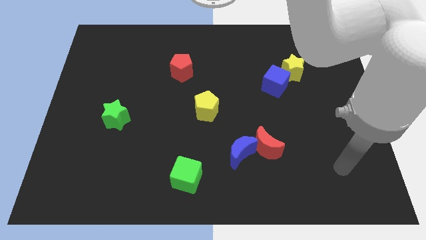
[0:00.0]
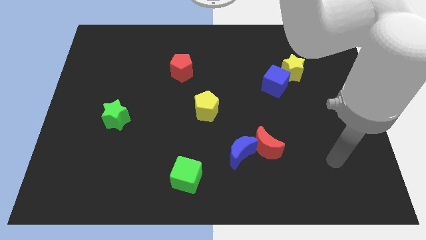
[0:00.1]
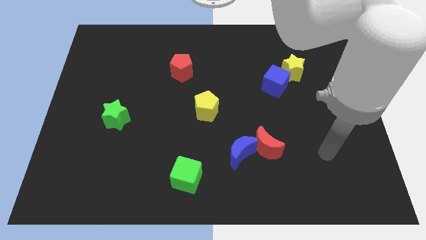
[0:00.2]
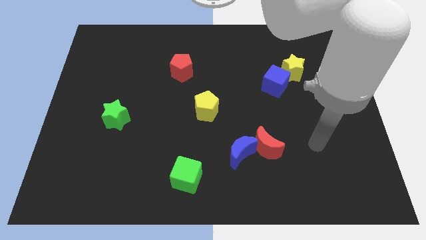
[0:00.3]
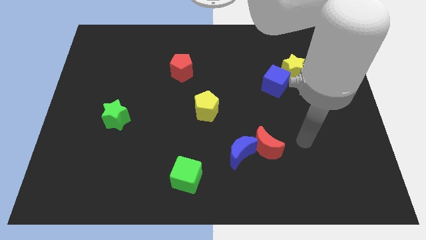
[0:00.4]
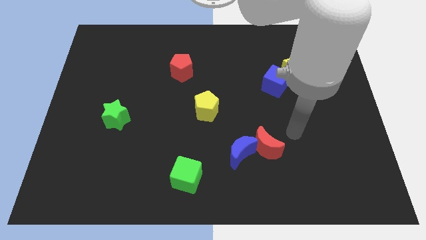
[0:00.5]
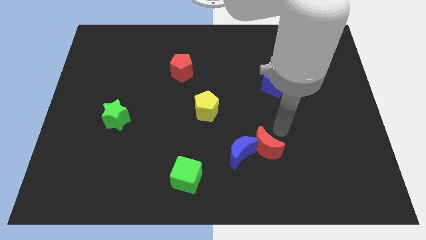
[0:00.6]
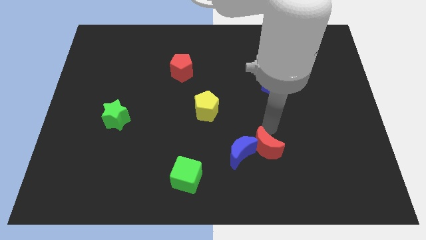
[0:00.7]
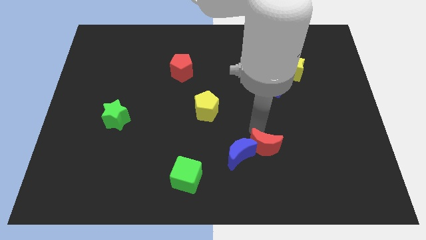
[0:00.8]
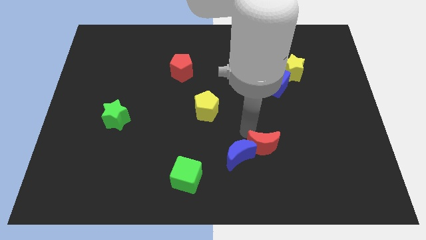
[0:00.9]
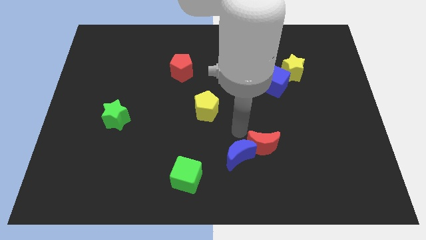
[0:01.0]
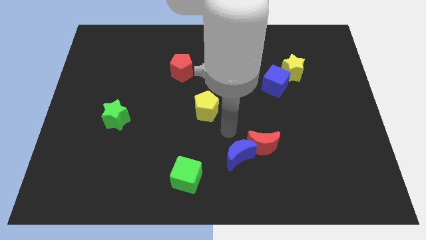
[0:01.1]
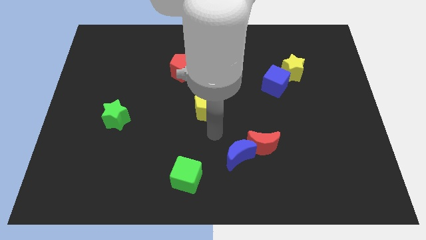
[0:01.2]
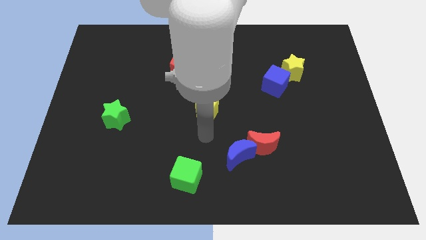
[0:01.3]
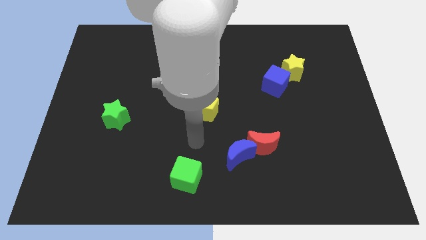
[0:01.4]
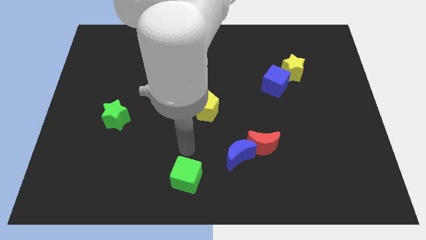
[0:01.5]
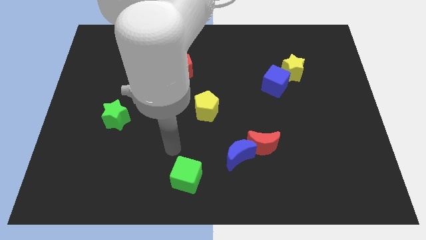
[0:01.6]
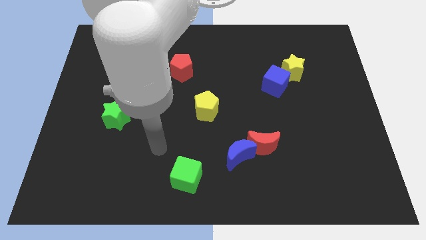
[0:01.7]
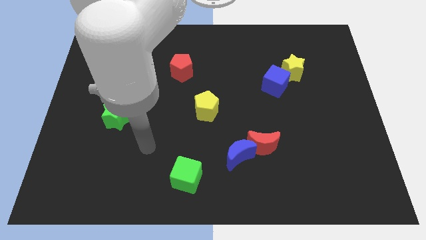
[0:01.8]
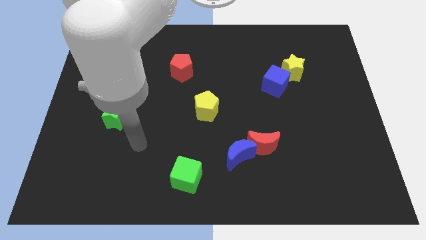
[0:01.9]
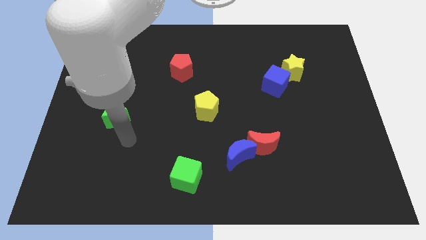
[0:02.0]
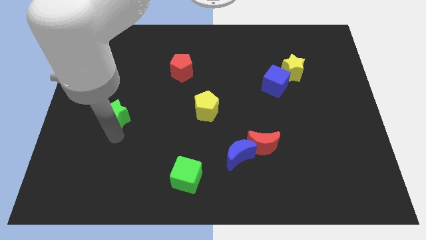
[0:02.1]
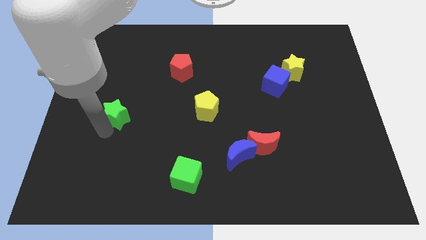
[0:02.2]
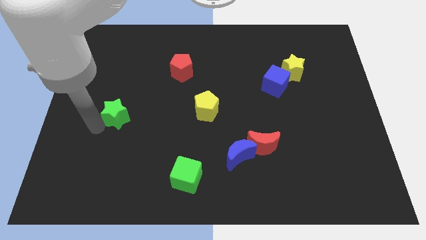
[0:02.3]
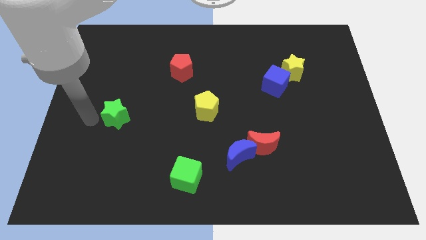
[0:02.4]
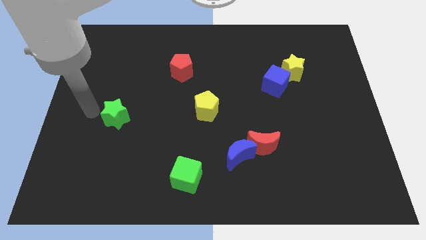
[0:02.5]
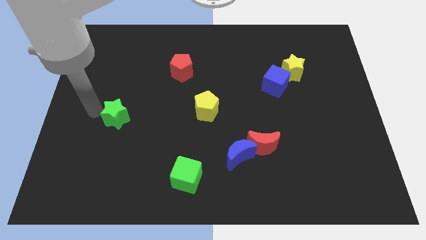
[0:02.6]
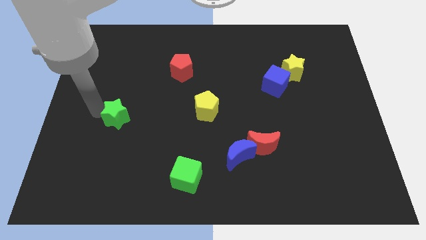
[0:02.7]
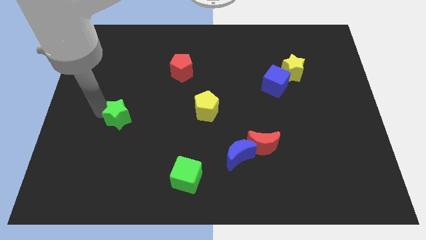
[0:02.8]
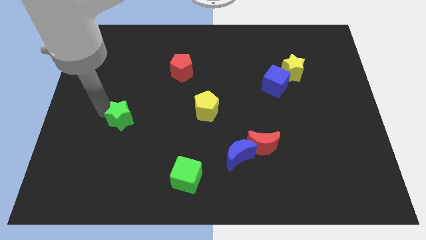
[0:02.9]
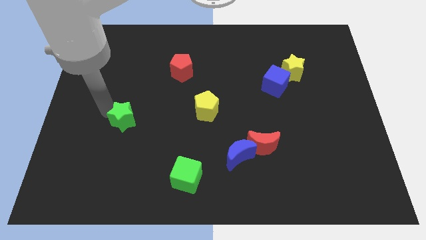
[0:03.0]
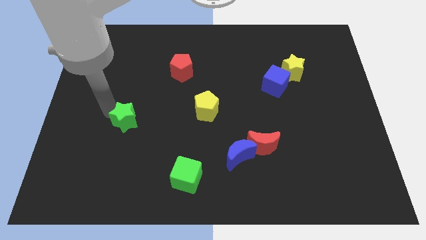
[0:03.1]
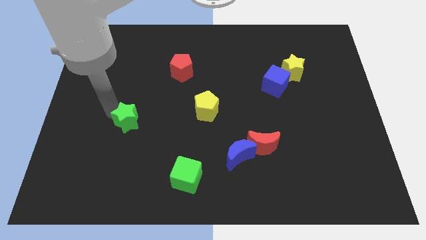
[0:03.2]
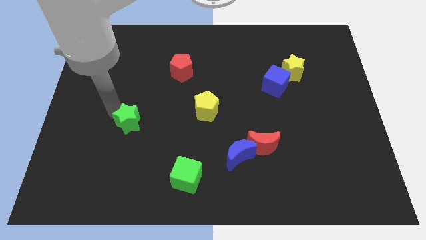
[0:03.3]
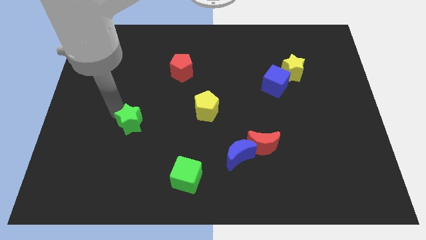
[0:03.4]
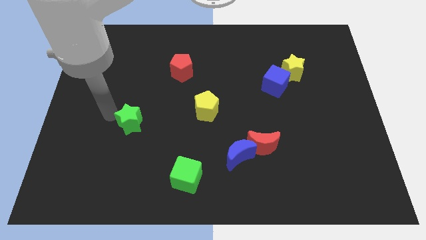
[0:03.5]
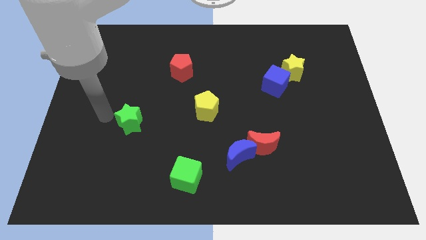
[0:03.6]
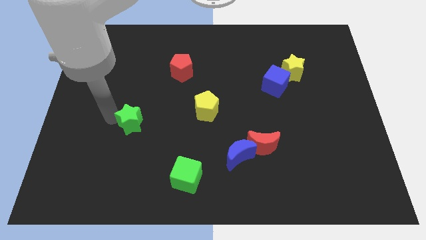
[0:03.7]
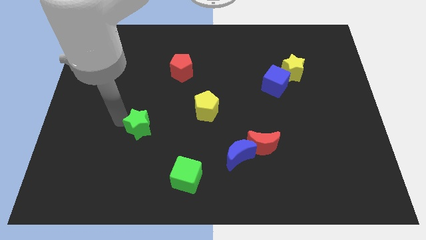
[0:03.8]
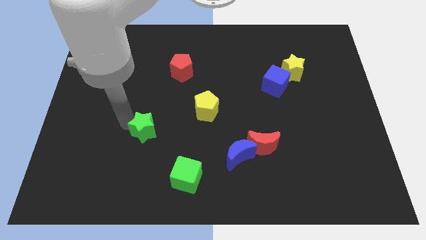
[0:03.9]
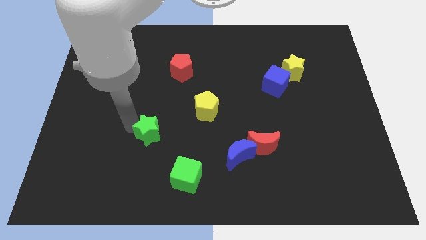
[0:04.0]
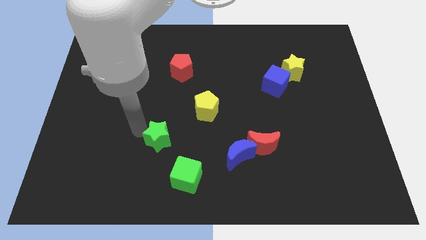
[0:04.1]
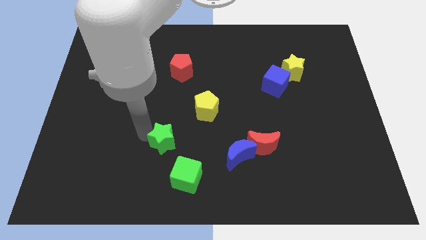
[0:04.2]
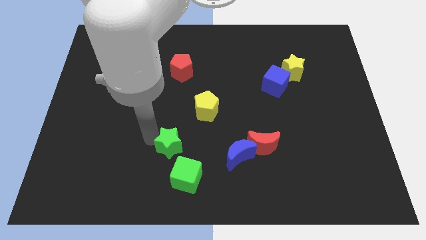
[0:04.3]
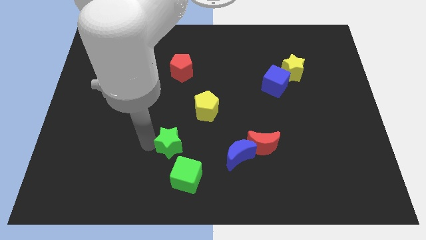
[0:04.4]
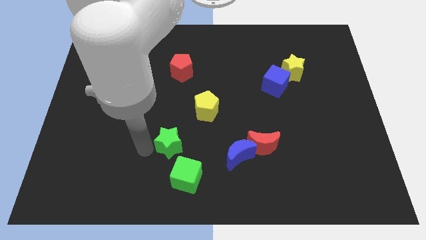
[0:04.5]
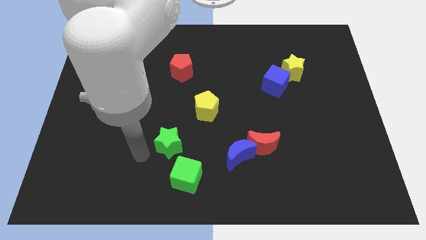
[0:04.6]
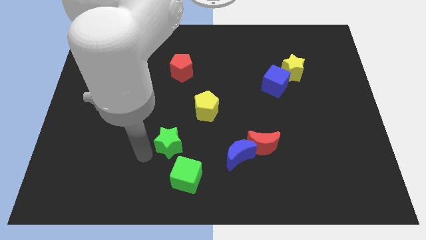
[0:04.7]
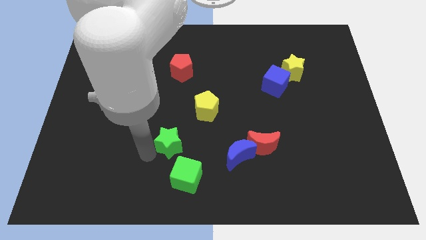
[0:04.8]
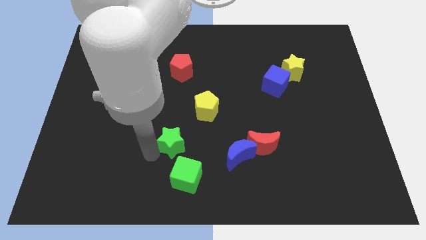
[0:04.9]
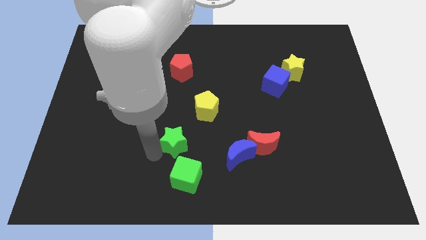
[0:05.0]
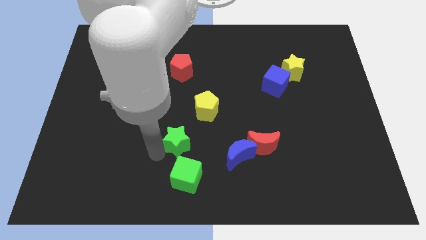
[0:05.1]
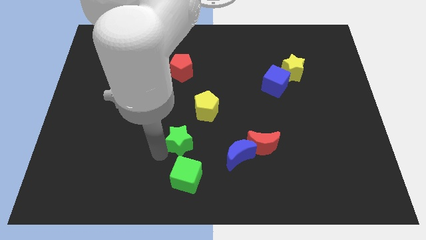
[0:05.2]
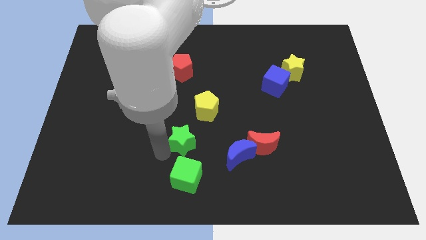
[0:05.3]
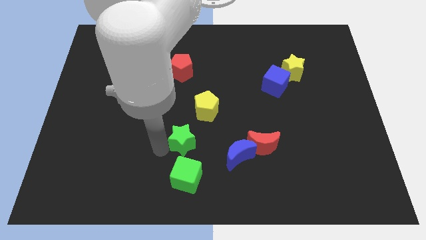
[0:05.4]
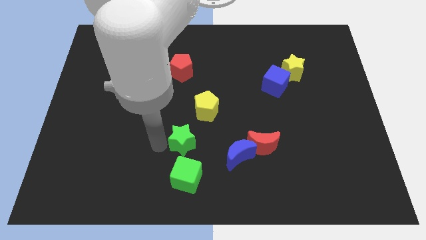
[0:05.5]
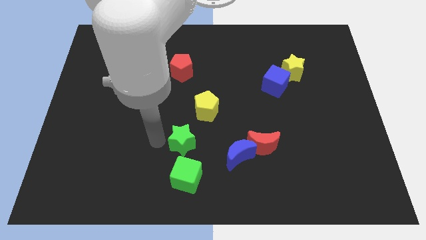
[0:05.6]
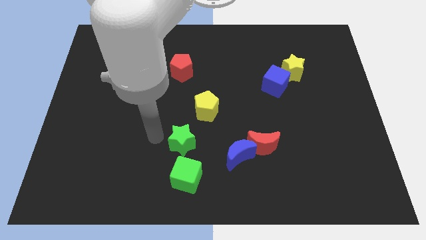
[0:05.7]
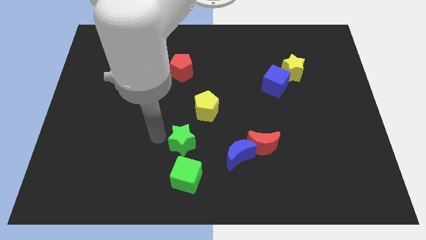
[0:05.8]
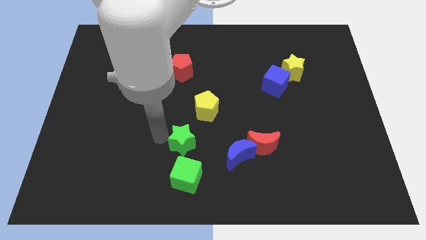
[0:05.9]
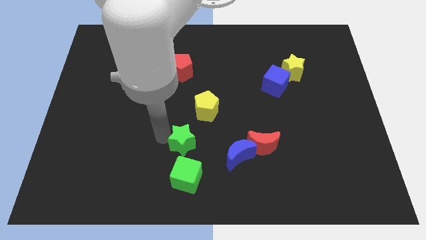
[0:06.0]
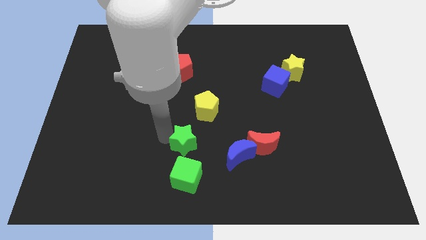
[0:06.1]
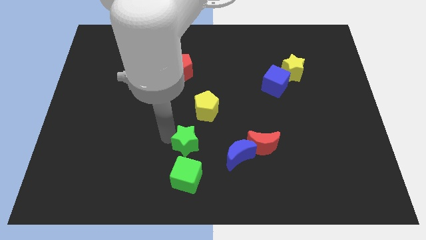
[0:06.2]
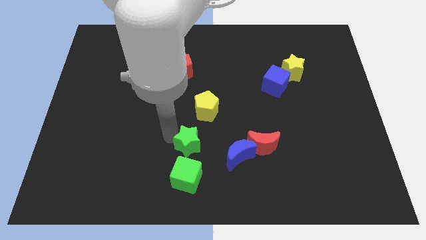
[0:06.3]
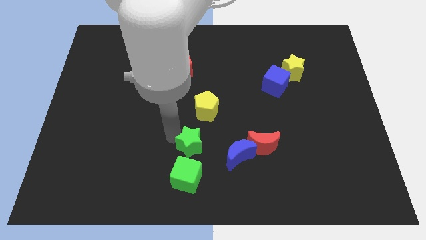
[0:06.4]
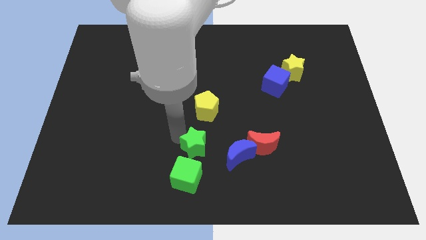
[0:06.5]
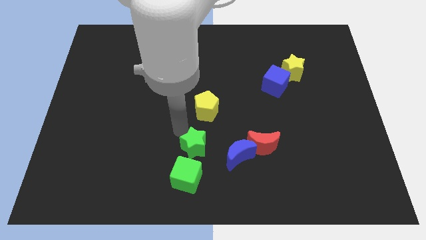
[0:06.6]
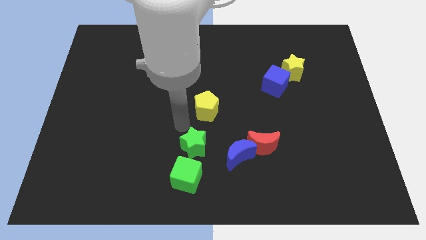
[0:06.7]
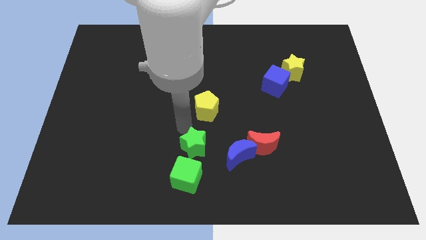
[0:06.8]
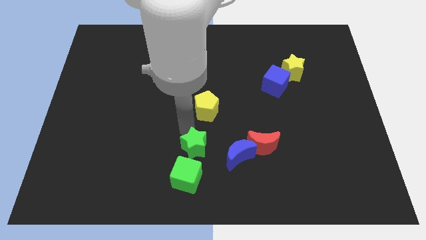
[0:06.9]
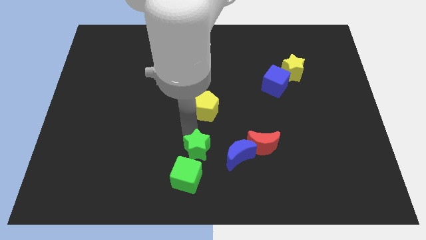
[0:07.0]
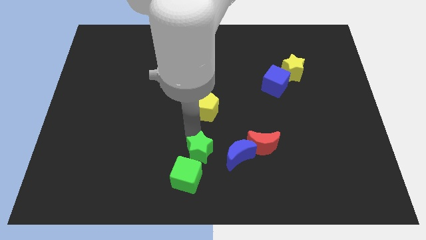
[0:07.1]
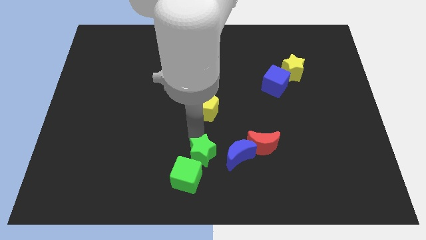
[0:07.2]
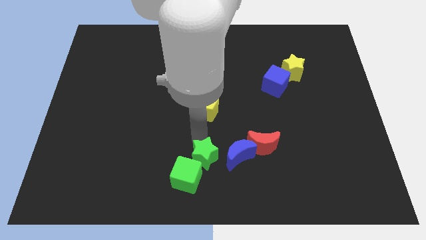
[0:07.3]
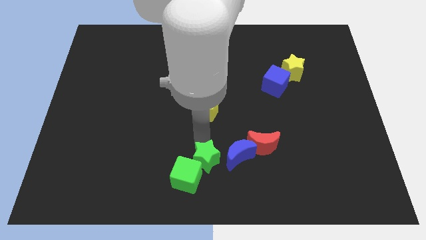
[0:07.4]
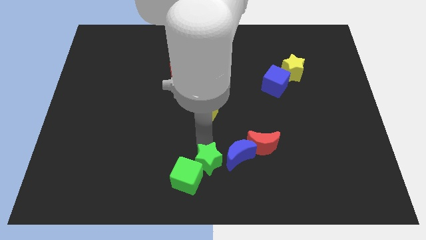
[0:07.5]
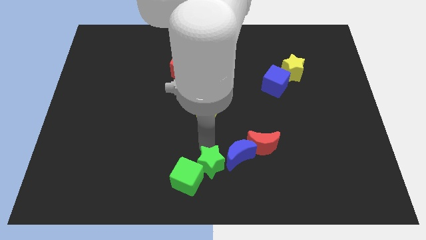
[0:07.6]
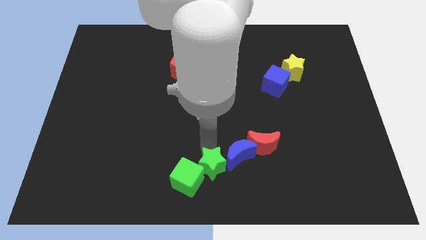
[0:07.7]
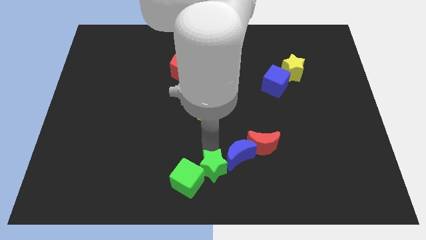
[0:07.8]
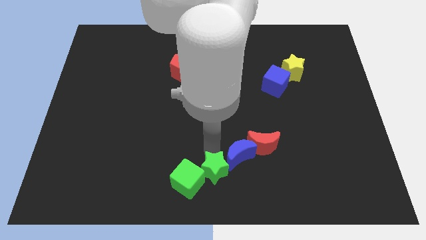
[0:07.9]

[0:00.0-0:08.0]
move the green star to the bottom left side of the red moon
